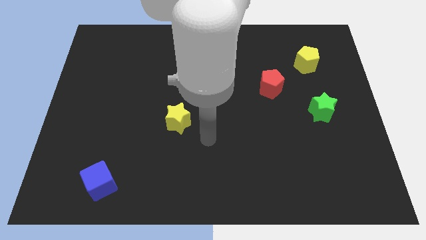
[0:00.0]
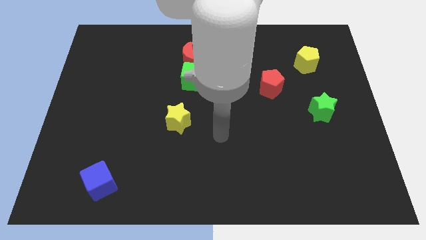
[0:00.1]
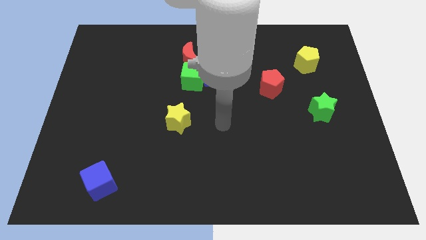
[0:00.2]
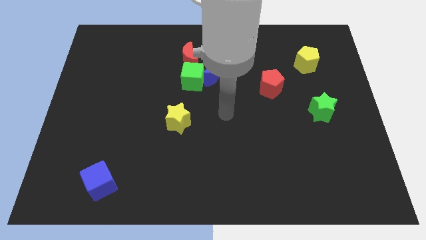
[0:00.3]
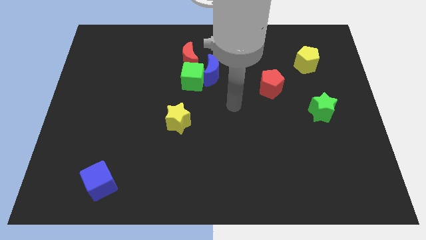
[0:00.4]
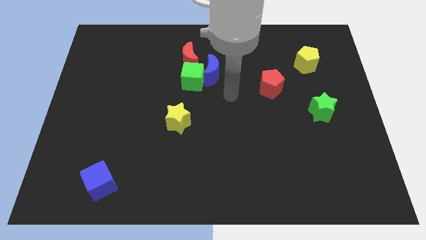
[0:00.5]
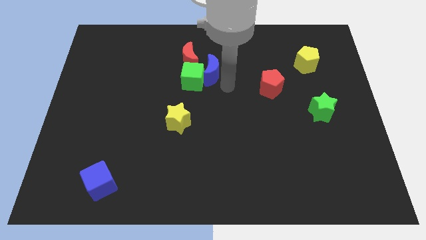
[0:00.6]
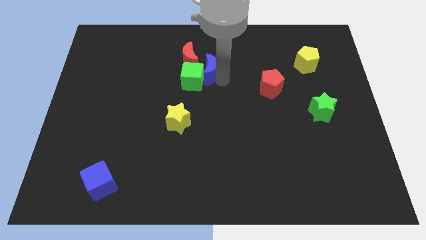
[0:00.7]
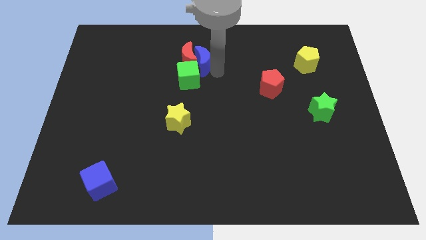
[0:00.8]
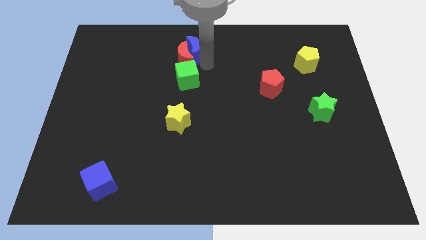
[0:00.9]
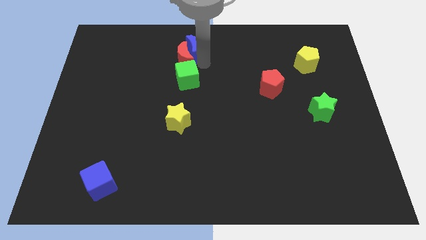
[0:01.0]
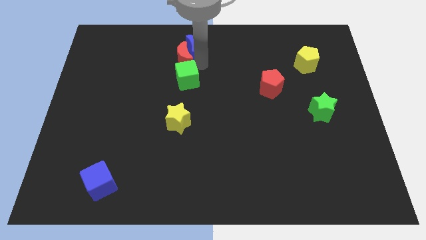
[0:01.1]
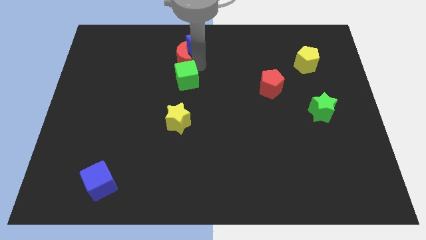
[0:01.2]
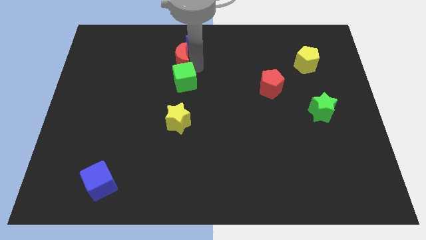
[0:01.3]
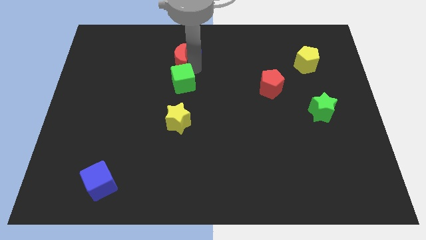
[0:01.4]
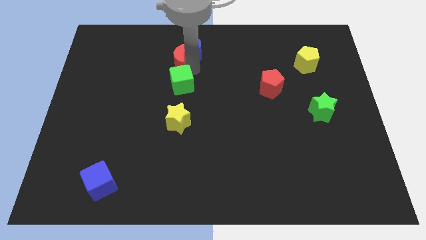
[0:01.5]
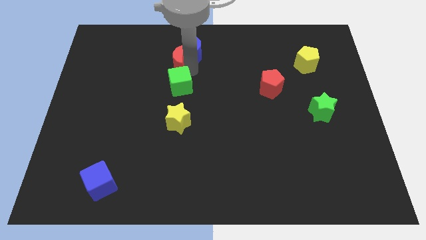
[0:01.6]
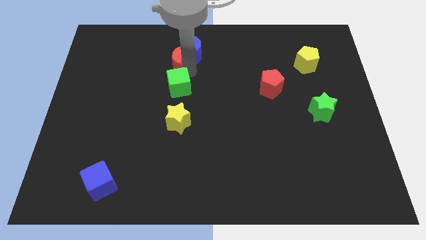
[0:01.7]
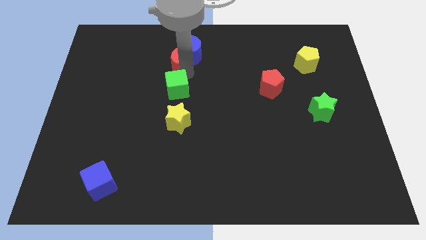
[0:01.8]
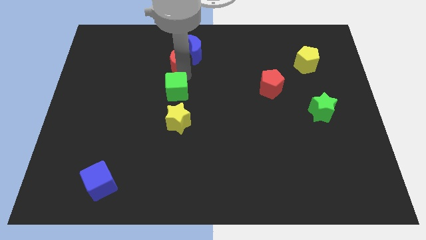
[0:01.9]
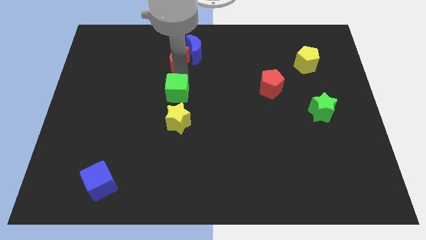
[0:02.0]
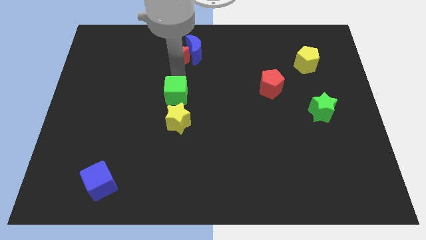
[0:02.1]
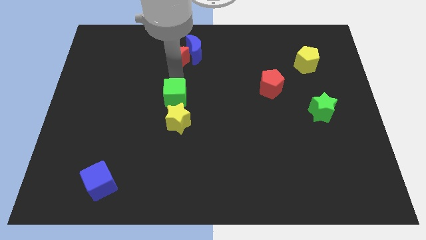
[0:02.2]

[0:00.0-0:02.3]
move the green cube a little downwards and to the left

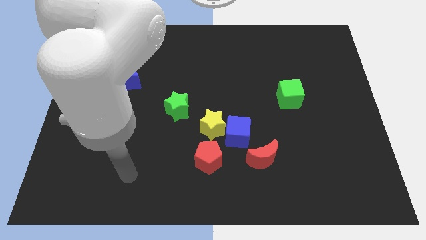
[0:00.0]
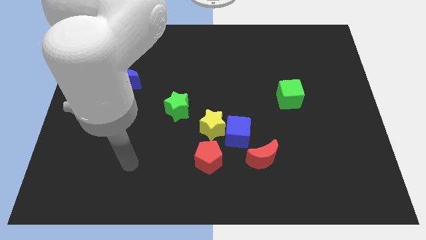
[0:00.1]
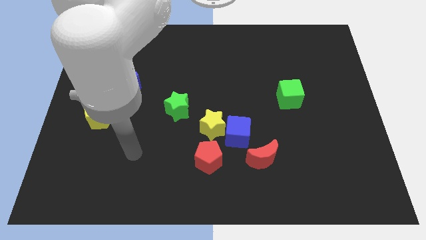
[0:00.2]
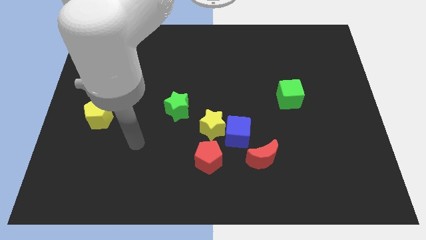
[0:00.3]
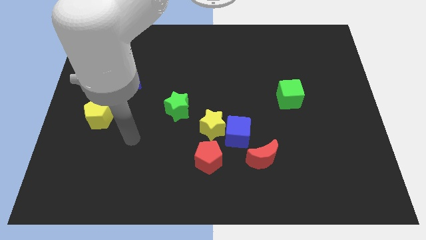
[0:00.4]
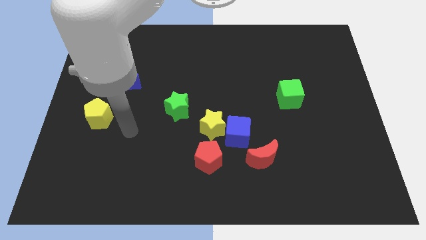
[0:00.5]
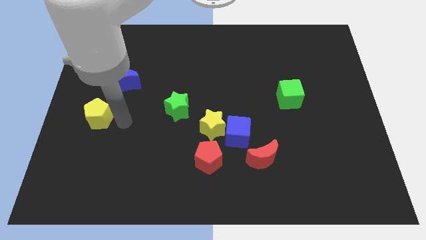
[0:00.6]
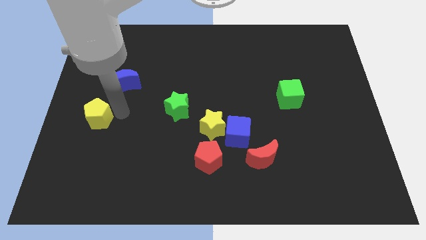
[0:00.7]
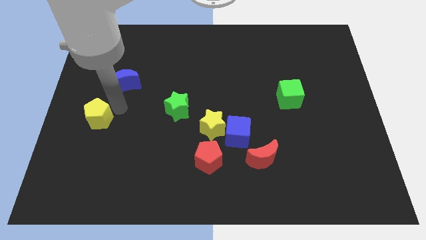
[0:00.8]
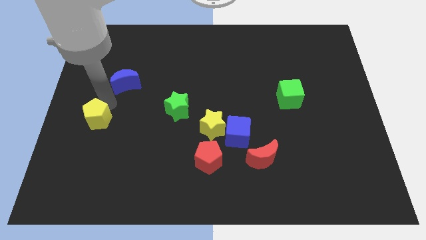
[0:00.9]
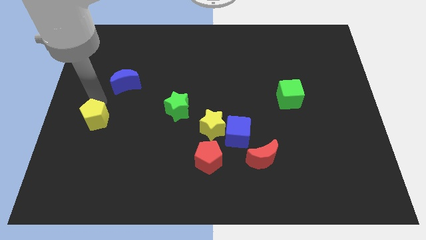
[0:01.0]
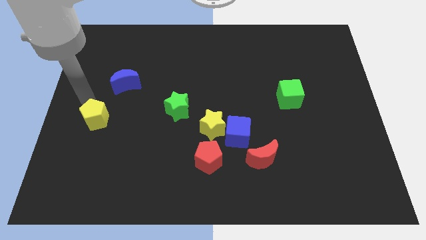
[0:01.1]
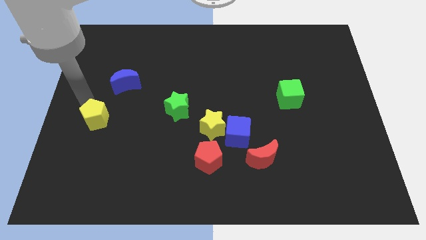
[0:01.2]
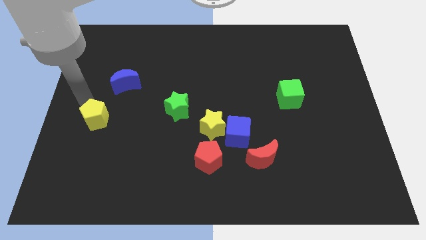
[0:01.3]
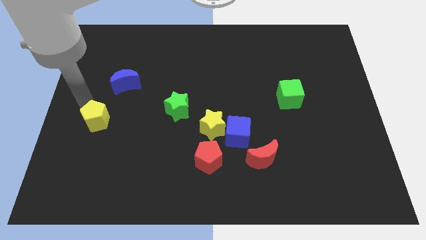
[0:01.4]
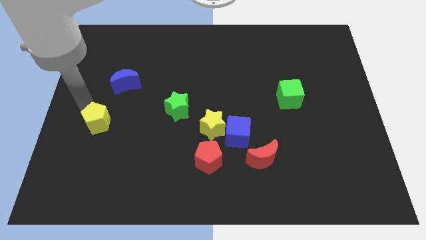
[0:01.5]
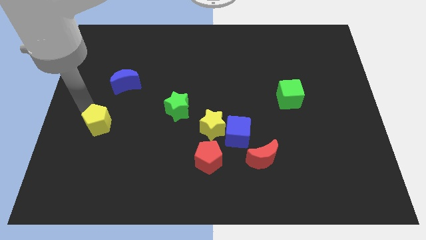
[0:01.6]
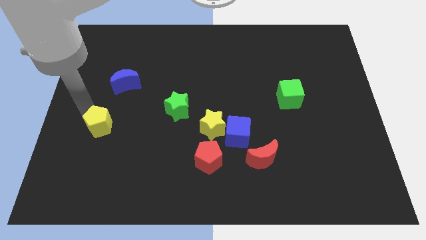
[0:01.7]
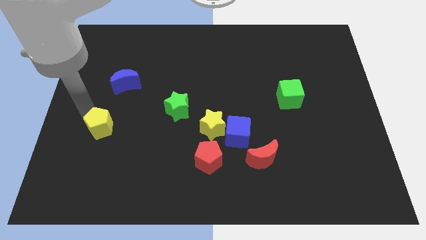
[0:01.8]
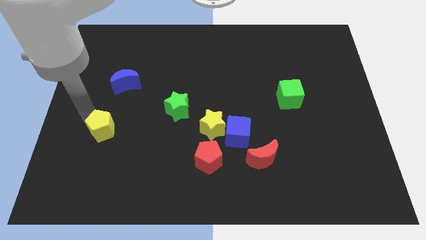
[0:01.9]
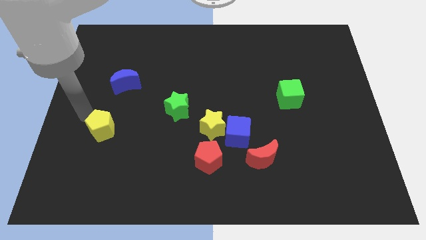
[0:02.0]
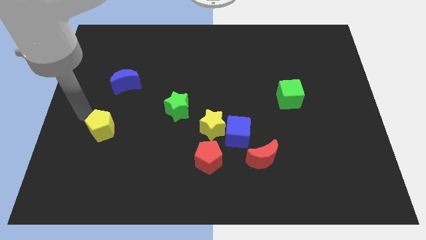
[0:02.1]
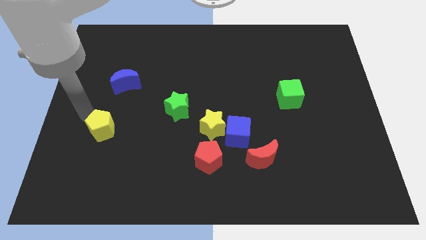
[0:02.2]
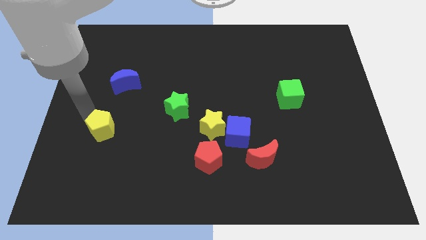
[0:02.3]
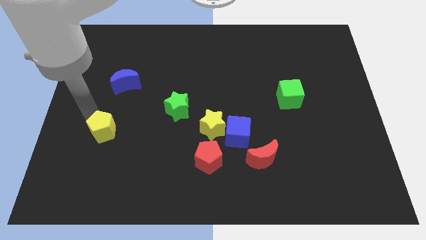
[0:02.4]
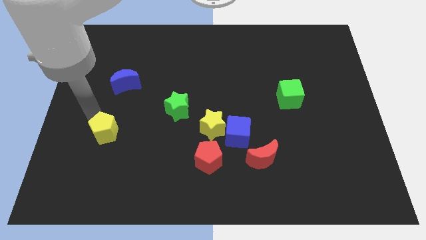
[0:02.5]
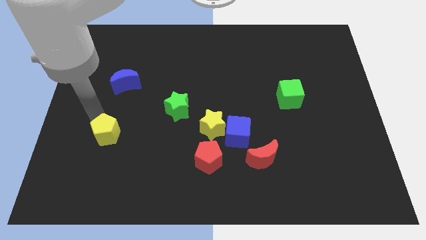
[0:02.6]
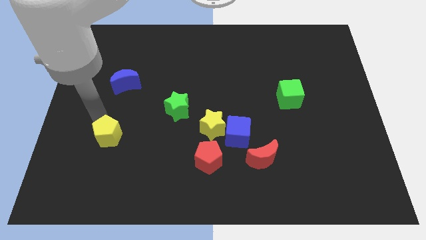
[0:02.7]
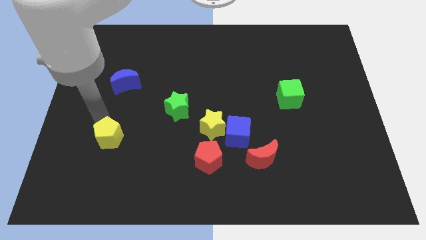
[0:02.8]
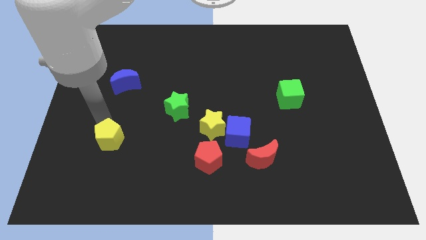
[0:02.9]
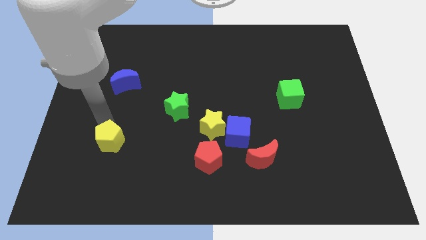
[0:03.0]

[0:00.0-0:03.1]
move the yellow pentagon somewhat downwards and to the right diagonally

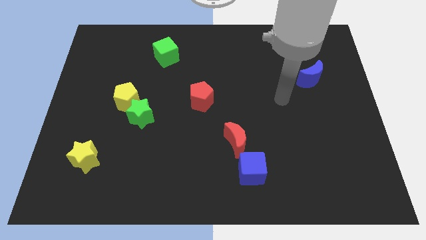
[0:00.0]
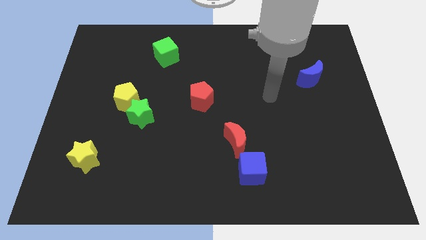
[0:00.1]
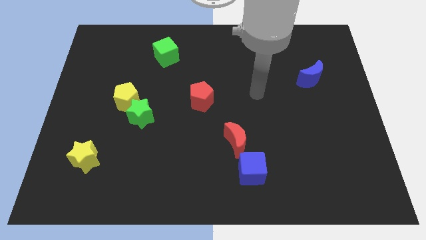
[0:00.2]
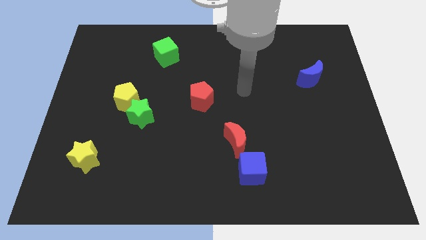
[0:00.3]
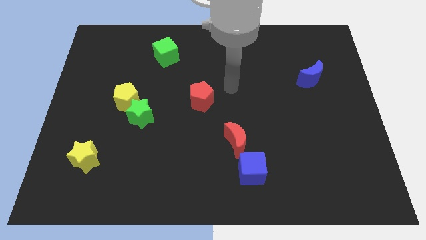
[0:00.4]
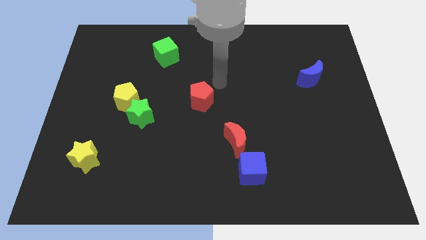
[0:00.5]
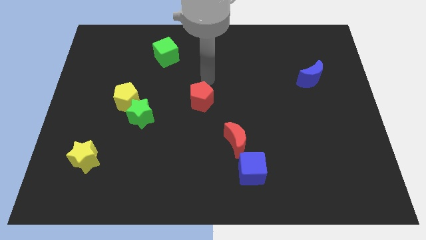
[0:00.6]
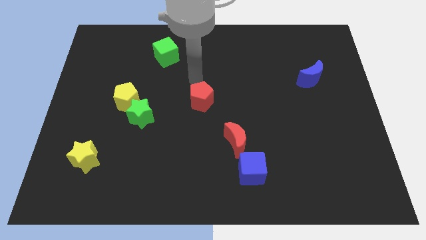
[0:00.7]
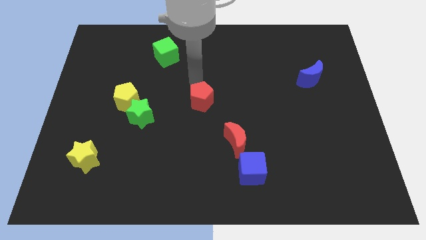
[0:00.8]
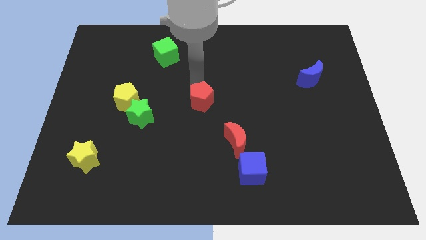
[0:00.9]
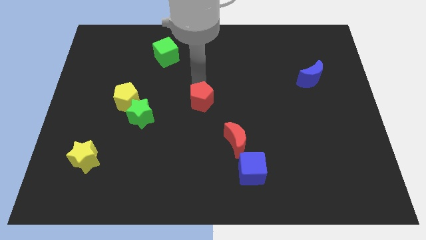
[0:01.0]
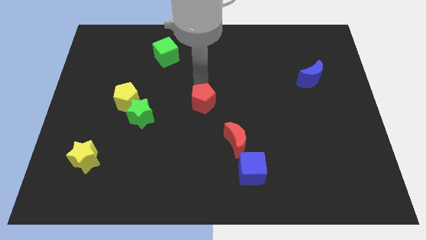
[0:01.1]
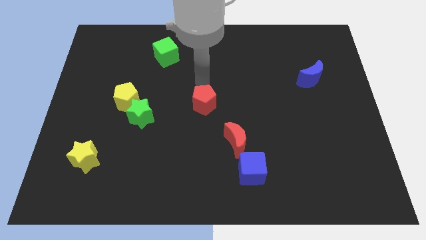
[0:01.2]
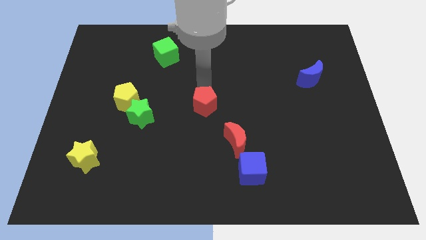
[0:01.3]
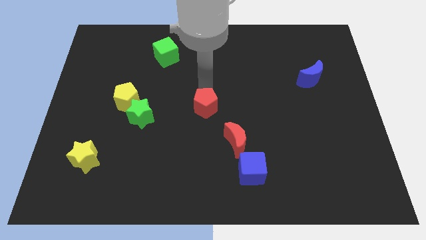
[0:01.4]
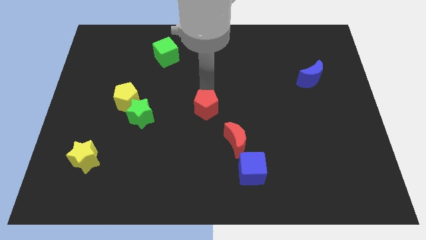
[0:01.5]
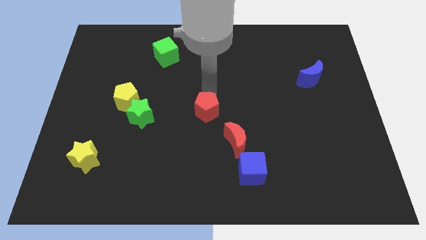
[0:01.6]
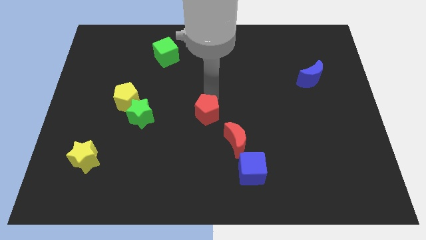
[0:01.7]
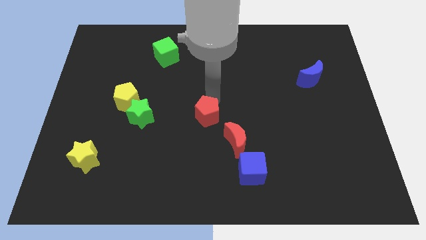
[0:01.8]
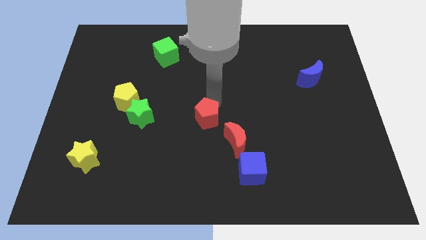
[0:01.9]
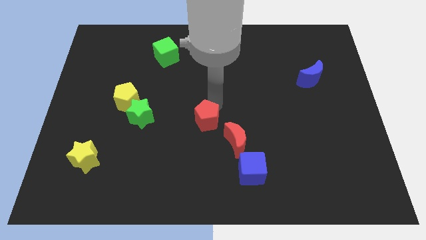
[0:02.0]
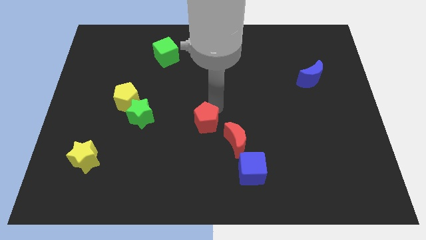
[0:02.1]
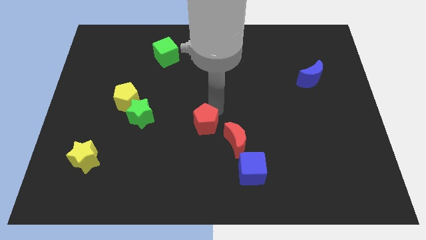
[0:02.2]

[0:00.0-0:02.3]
slightly move the red pentagon down
